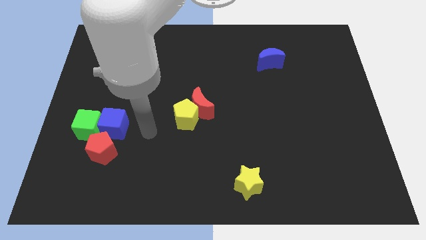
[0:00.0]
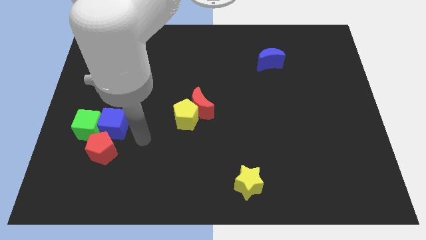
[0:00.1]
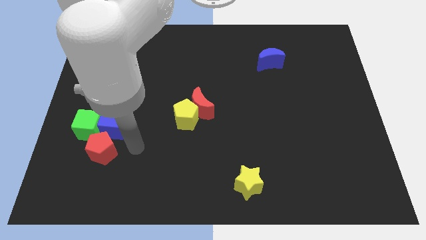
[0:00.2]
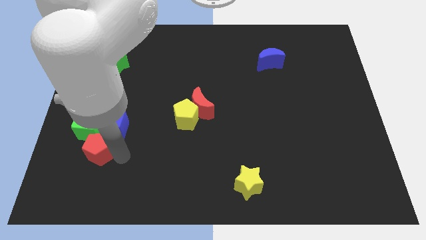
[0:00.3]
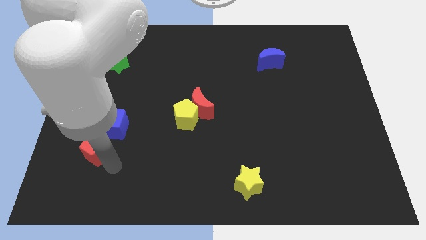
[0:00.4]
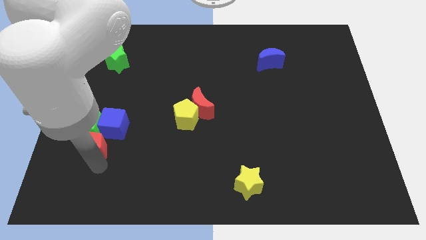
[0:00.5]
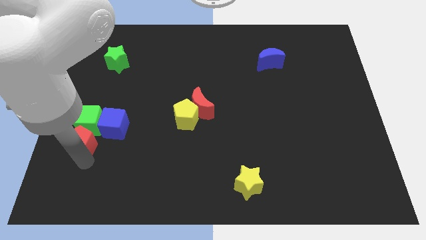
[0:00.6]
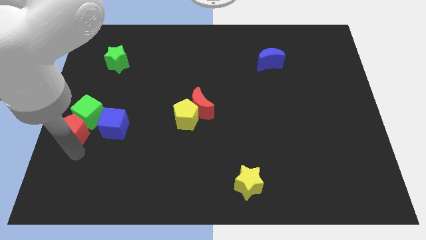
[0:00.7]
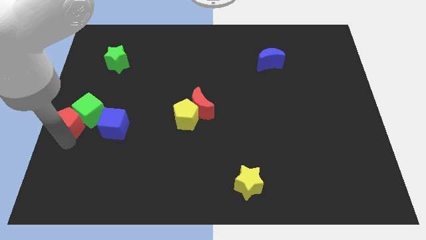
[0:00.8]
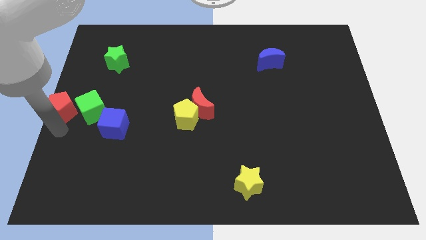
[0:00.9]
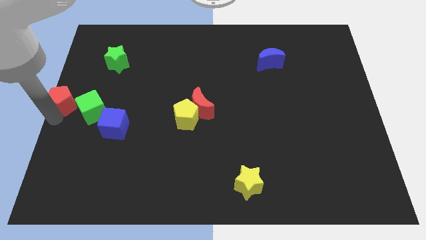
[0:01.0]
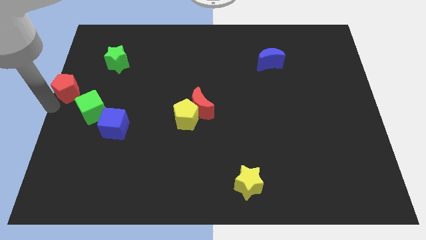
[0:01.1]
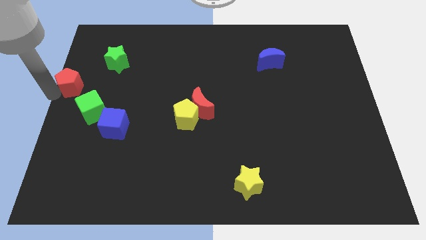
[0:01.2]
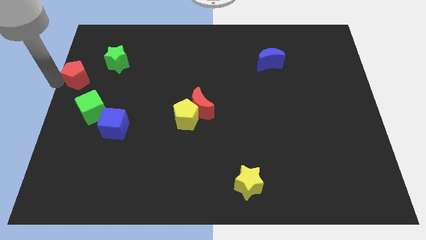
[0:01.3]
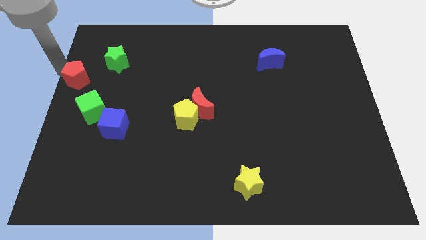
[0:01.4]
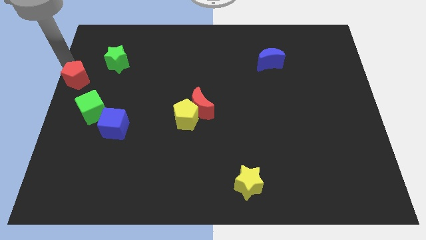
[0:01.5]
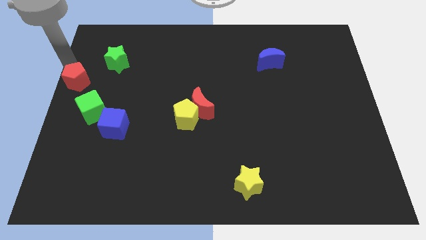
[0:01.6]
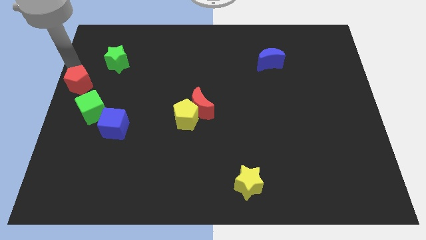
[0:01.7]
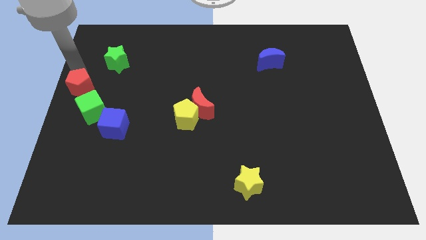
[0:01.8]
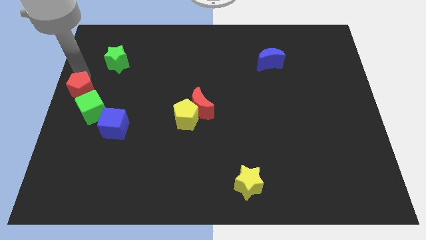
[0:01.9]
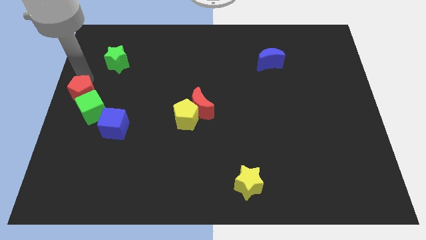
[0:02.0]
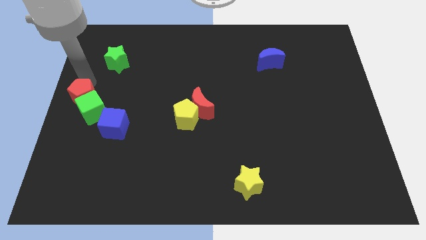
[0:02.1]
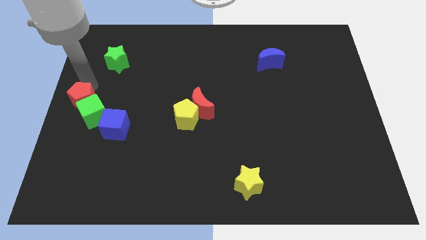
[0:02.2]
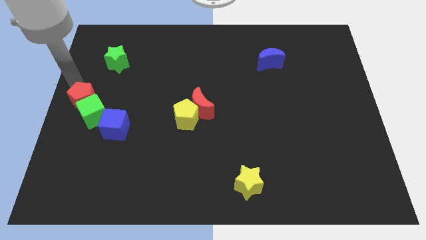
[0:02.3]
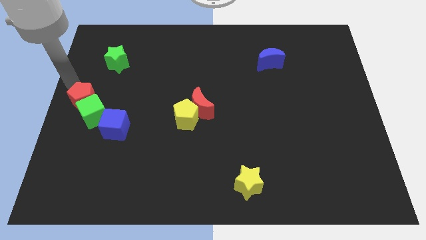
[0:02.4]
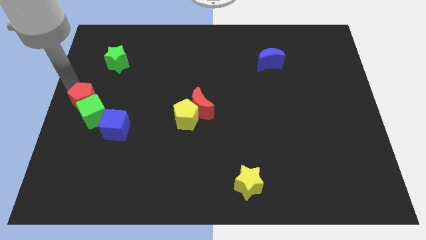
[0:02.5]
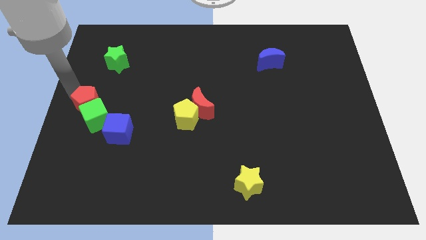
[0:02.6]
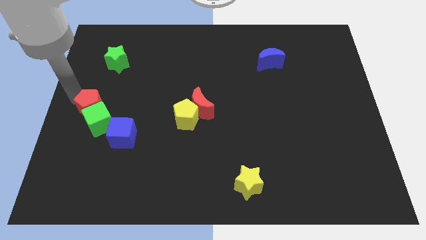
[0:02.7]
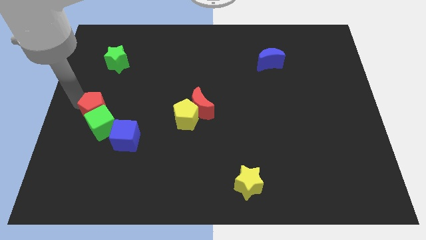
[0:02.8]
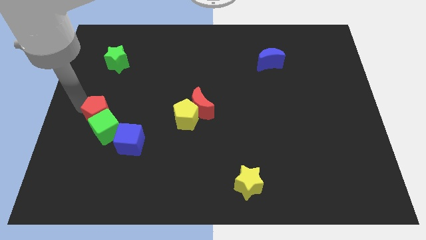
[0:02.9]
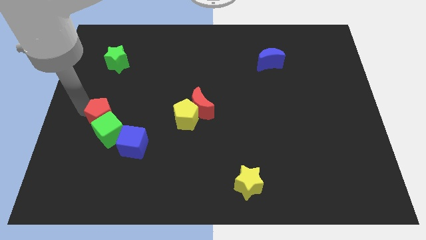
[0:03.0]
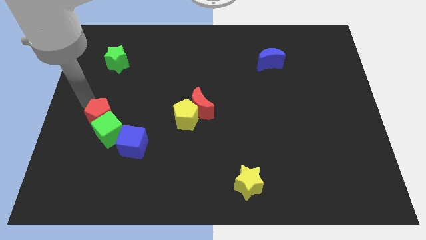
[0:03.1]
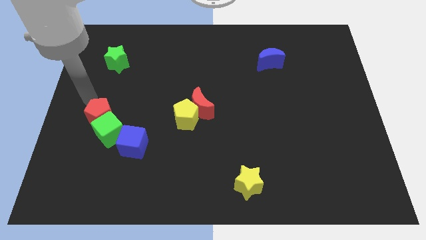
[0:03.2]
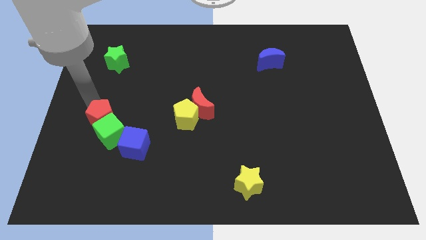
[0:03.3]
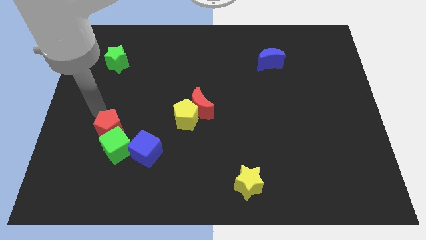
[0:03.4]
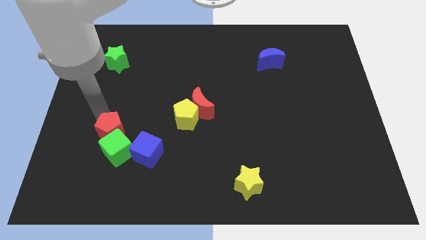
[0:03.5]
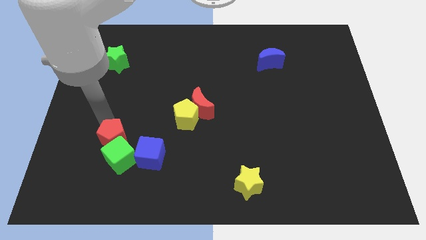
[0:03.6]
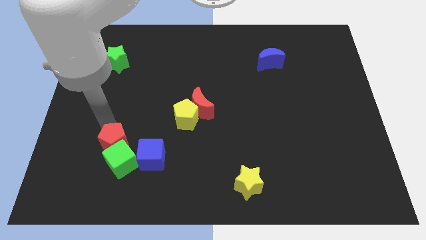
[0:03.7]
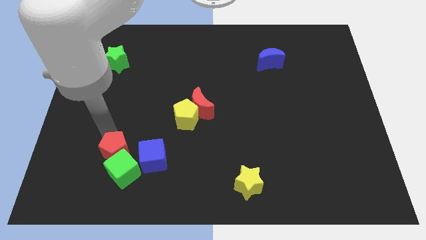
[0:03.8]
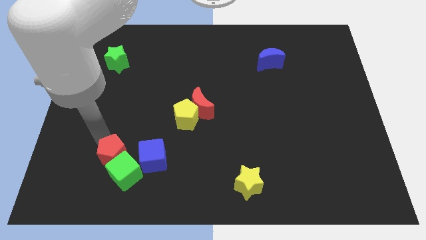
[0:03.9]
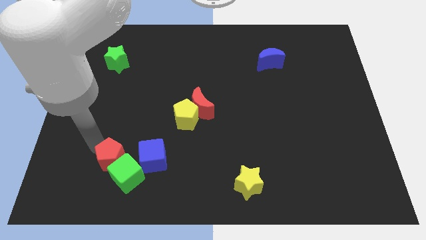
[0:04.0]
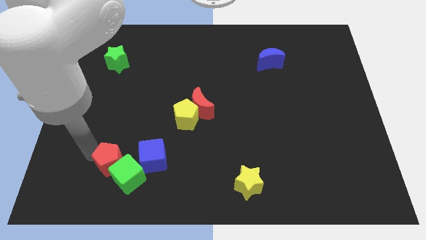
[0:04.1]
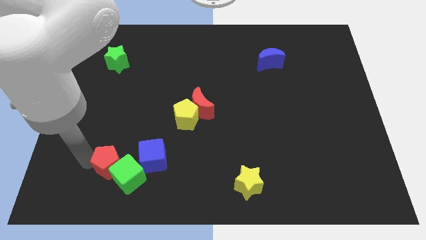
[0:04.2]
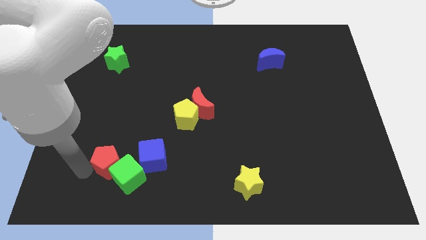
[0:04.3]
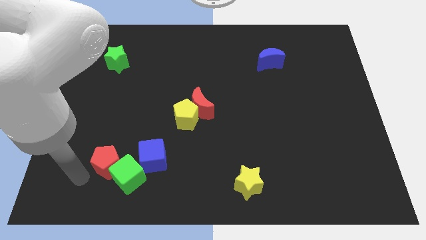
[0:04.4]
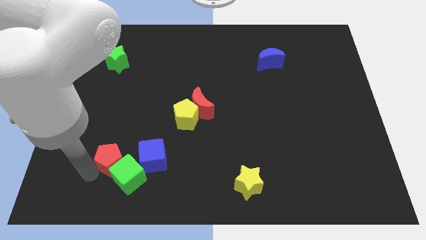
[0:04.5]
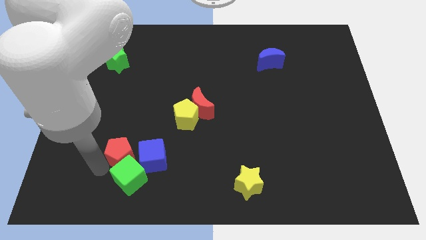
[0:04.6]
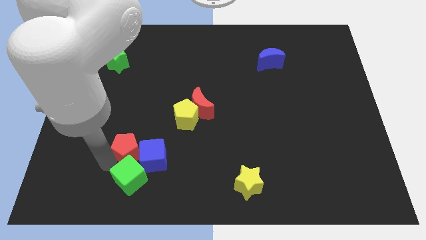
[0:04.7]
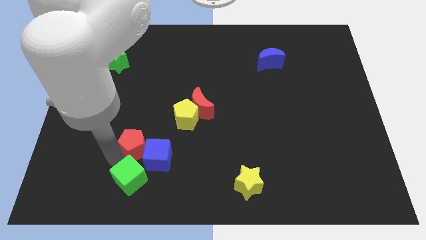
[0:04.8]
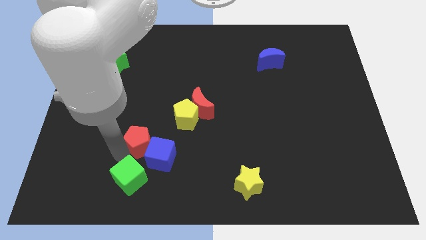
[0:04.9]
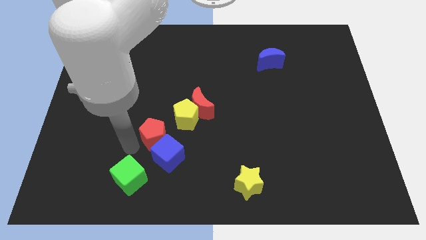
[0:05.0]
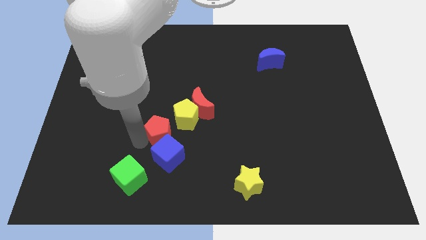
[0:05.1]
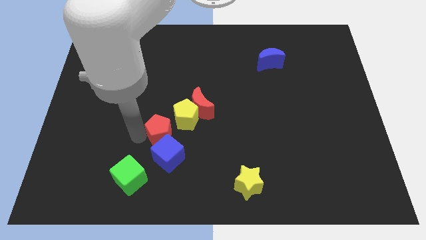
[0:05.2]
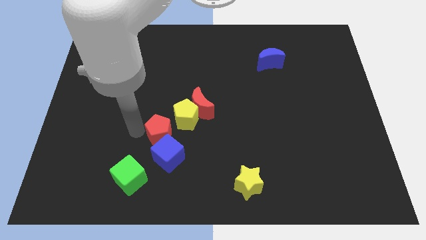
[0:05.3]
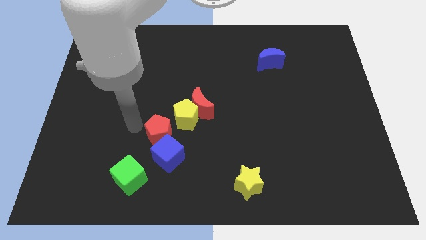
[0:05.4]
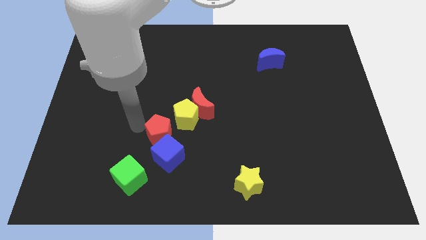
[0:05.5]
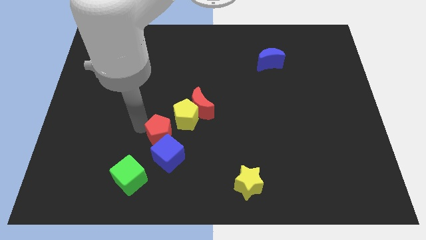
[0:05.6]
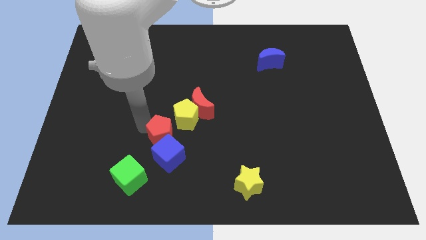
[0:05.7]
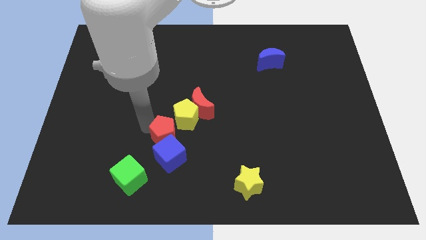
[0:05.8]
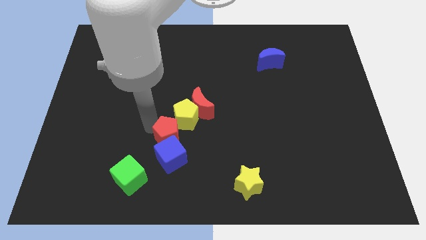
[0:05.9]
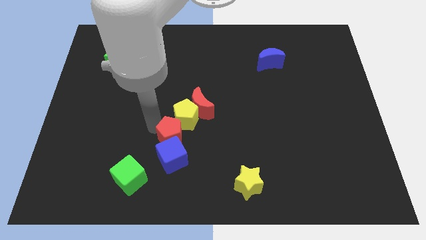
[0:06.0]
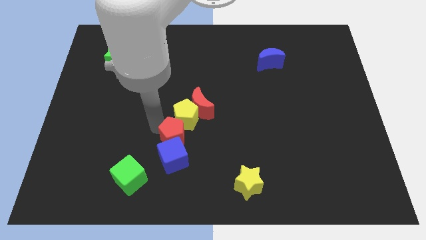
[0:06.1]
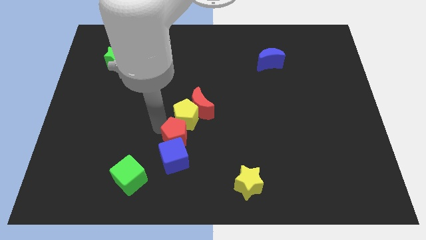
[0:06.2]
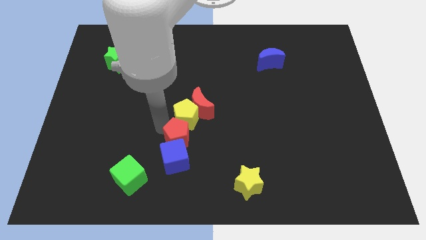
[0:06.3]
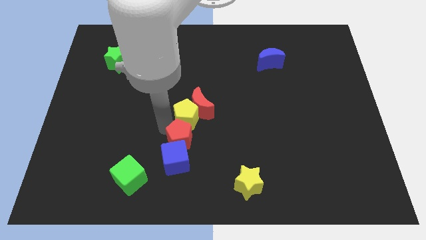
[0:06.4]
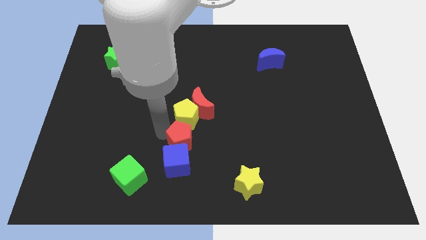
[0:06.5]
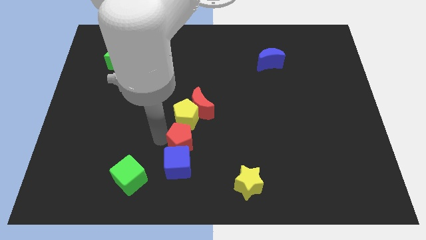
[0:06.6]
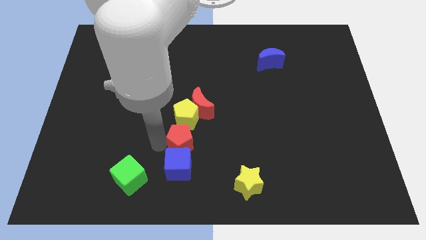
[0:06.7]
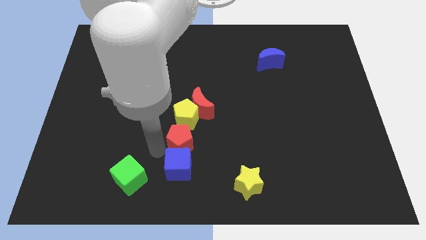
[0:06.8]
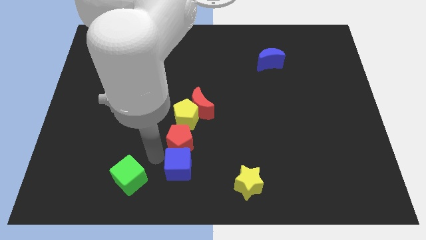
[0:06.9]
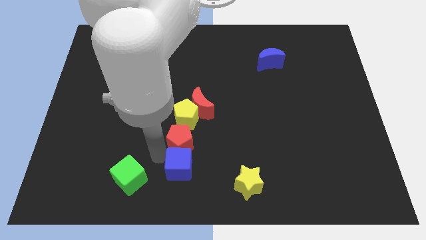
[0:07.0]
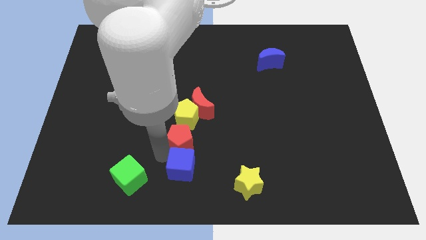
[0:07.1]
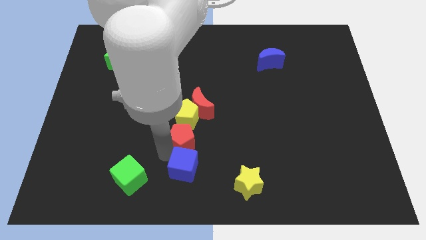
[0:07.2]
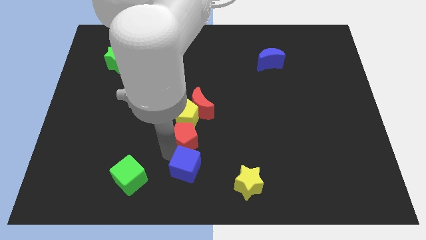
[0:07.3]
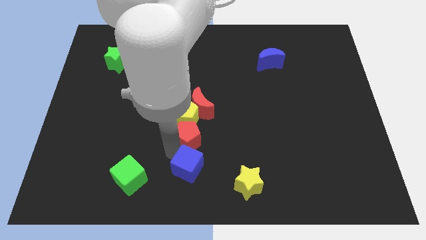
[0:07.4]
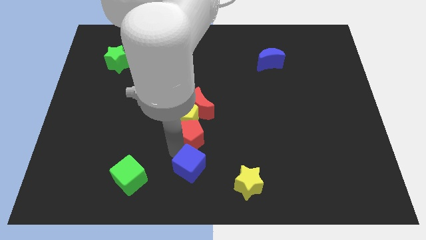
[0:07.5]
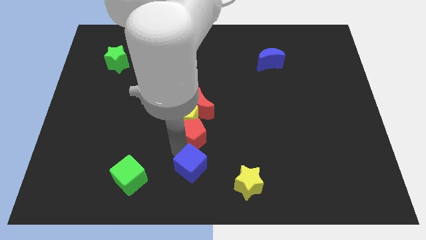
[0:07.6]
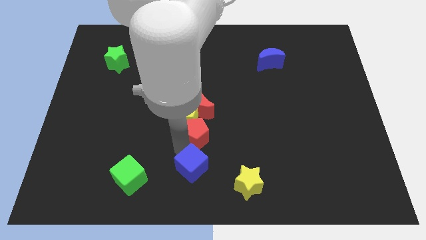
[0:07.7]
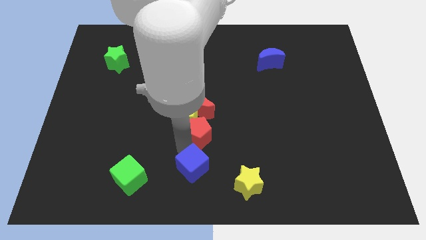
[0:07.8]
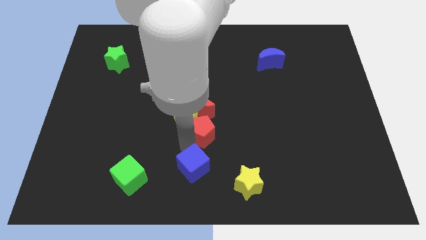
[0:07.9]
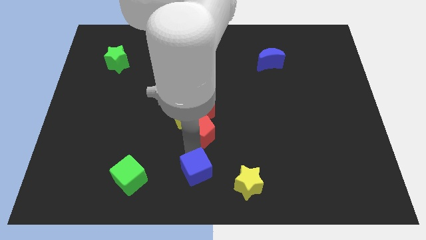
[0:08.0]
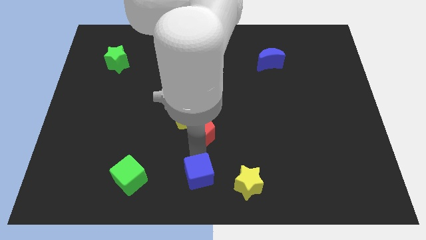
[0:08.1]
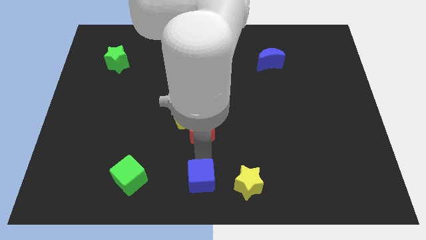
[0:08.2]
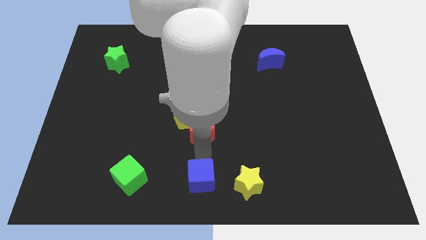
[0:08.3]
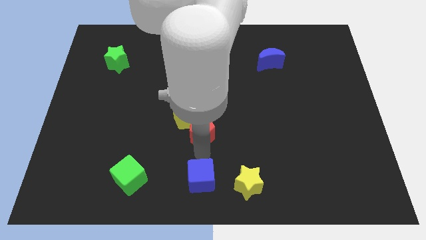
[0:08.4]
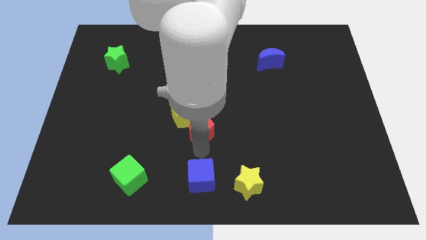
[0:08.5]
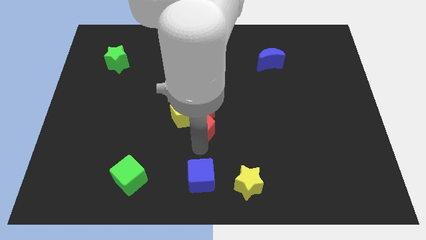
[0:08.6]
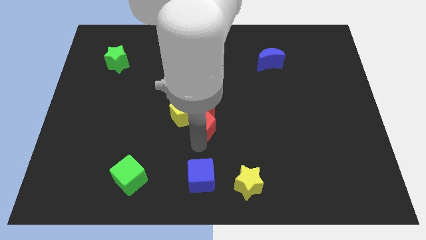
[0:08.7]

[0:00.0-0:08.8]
slide the red pentagon towards the red moon
